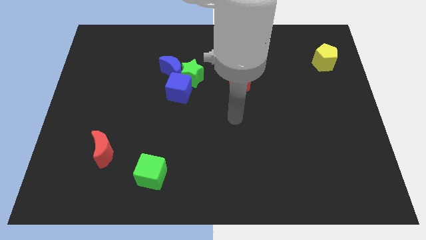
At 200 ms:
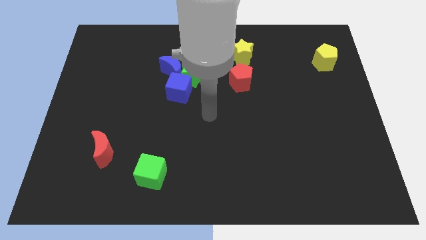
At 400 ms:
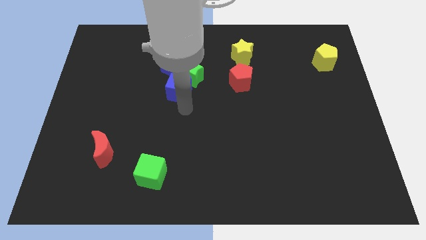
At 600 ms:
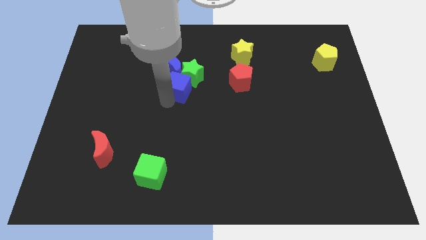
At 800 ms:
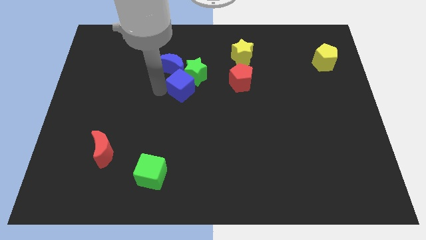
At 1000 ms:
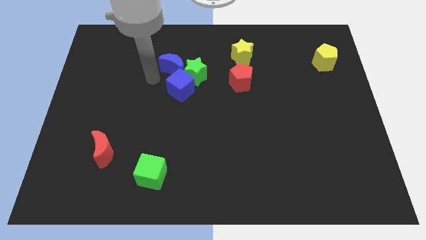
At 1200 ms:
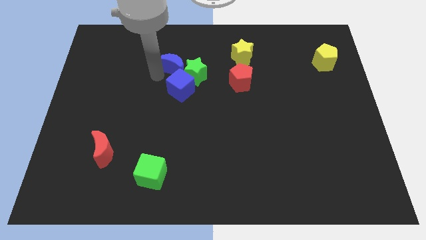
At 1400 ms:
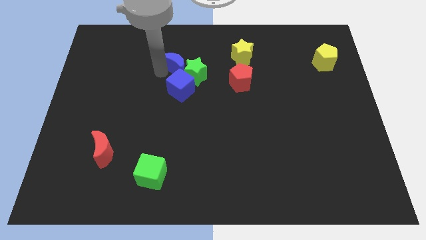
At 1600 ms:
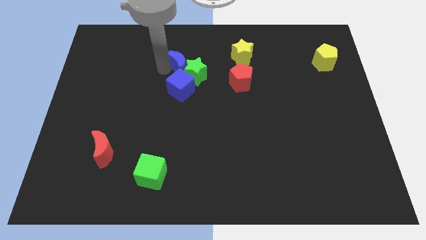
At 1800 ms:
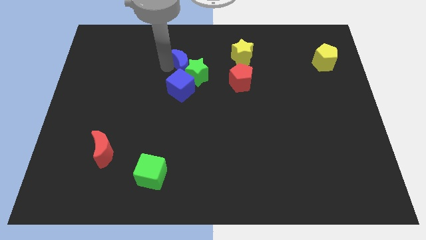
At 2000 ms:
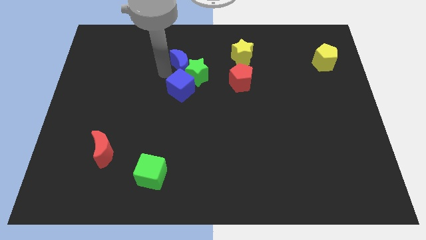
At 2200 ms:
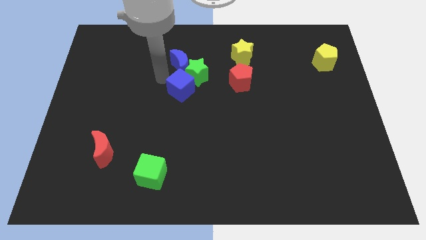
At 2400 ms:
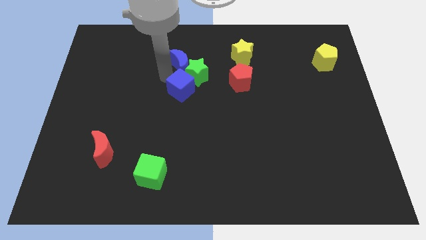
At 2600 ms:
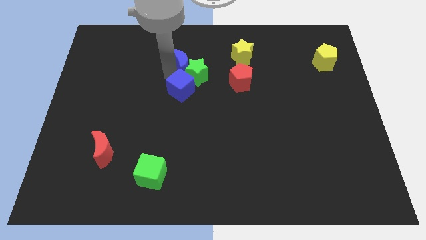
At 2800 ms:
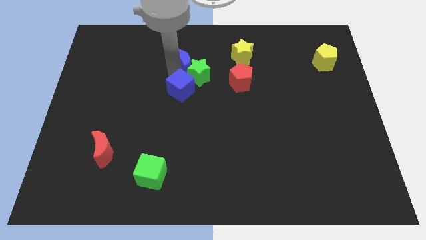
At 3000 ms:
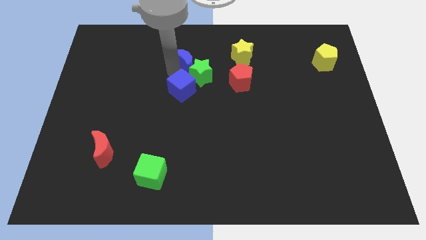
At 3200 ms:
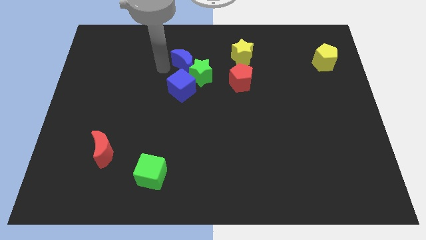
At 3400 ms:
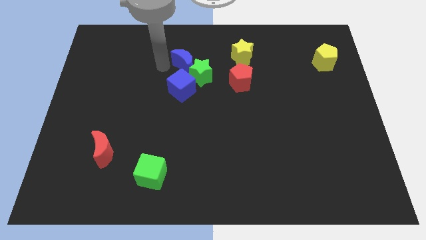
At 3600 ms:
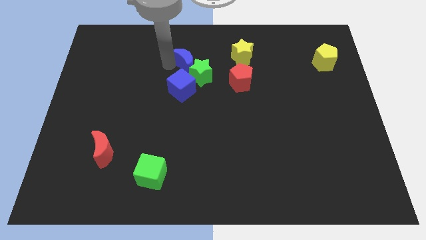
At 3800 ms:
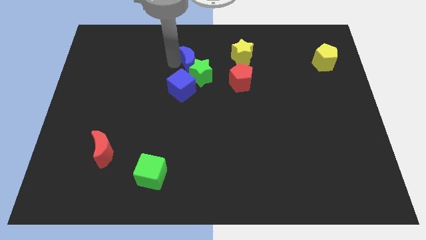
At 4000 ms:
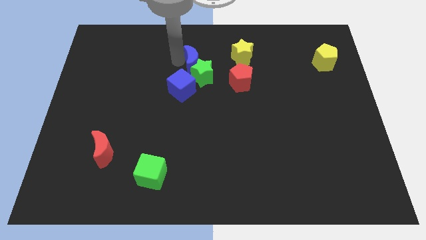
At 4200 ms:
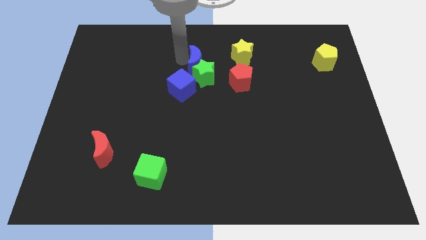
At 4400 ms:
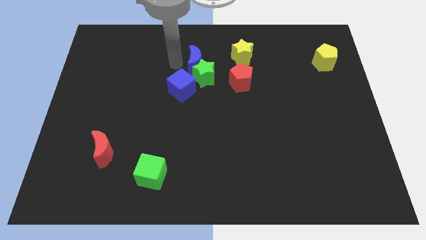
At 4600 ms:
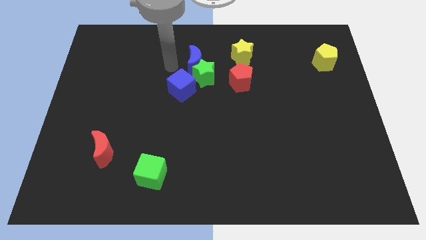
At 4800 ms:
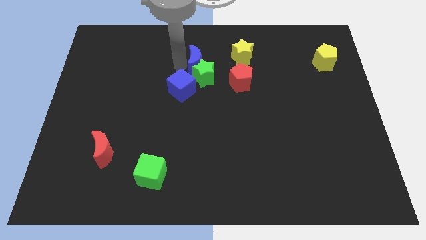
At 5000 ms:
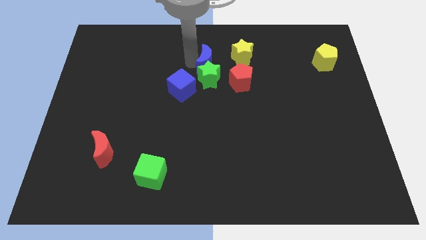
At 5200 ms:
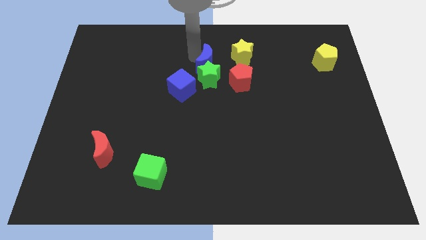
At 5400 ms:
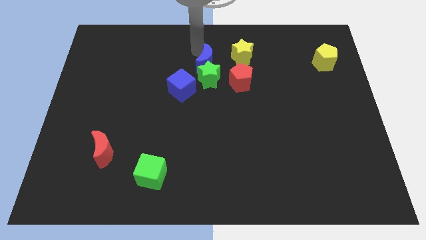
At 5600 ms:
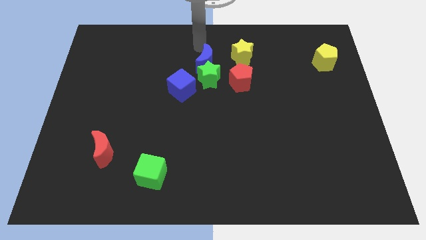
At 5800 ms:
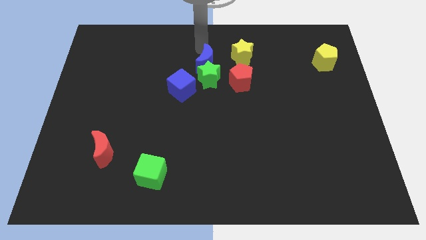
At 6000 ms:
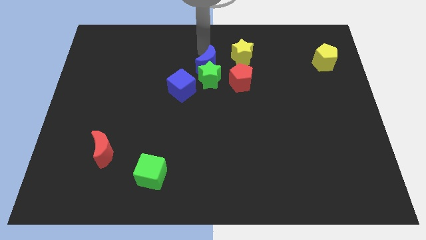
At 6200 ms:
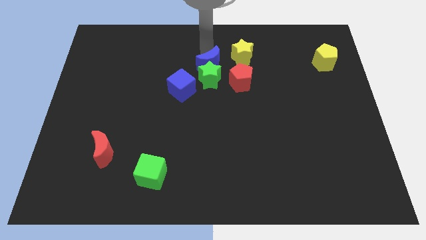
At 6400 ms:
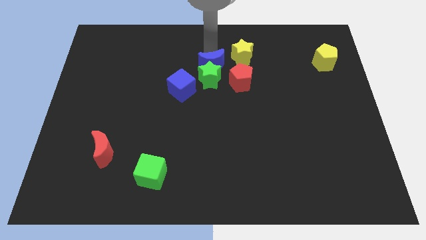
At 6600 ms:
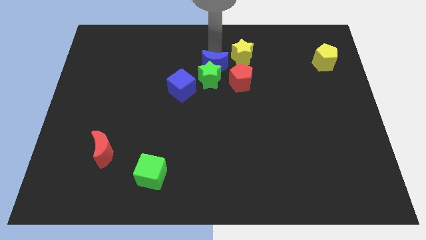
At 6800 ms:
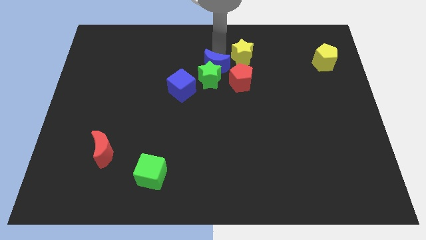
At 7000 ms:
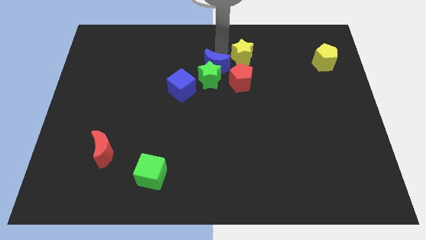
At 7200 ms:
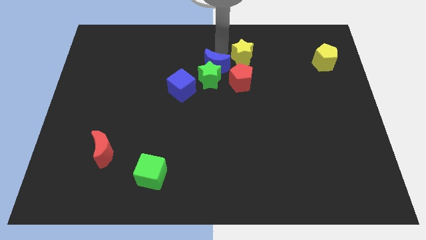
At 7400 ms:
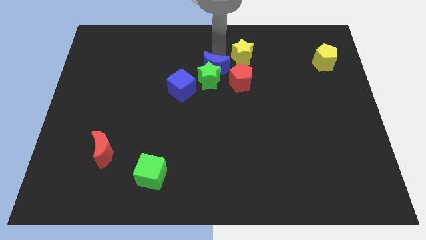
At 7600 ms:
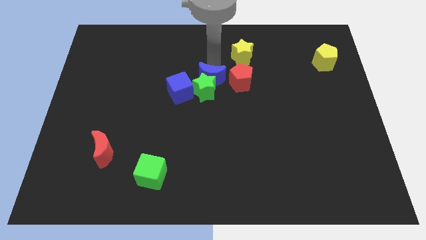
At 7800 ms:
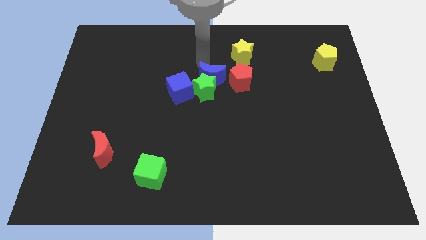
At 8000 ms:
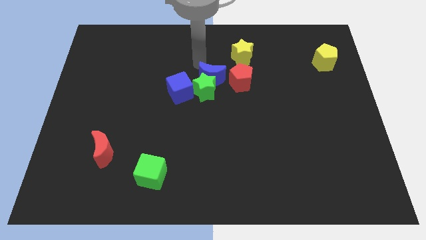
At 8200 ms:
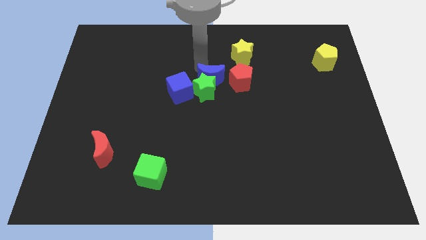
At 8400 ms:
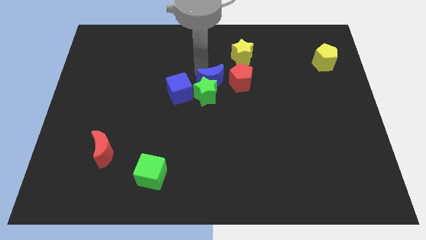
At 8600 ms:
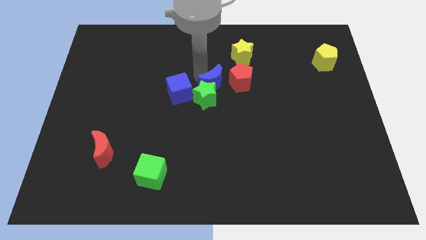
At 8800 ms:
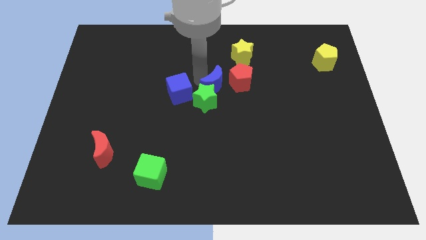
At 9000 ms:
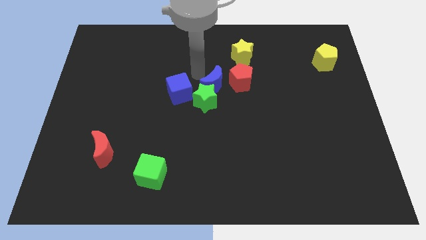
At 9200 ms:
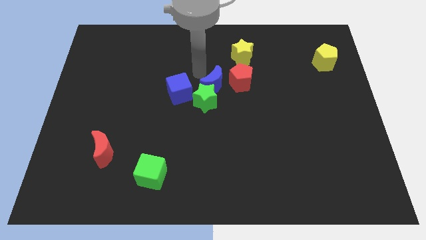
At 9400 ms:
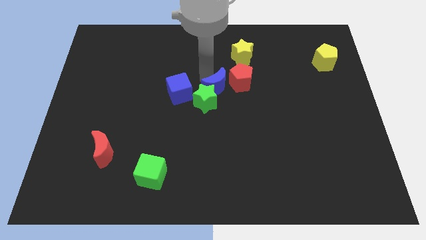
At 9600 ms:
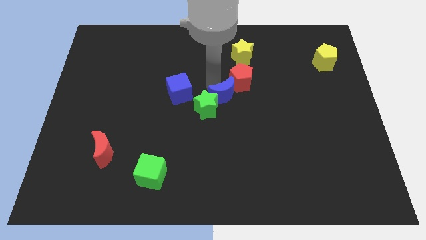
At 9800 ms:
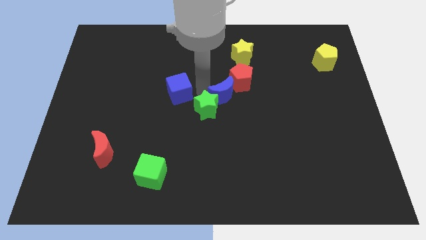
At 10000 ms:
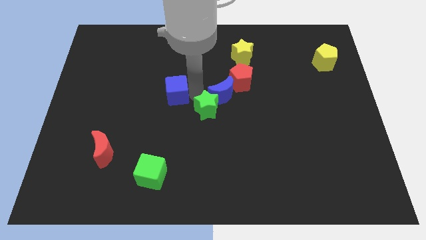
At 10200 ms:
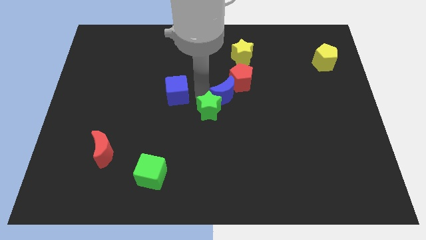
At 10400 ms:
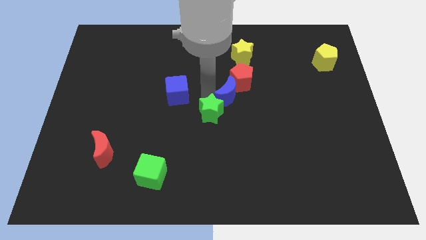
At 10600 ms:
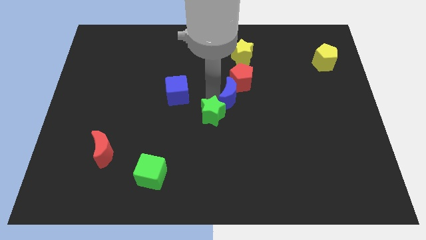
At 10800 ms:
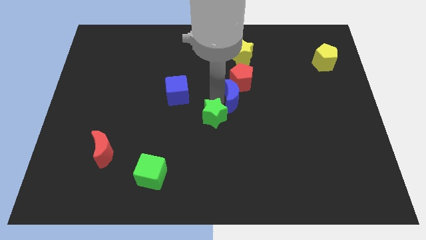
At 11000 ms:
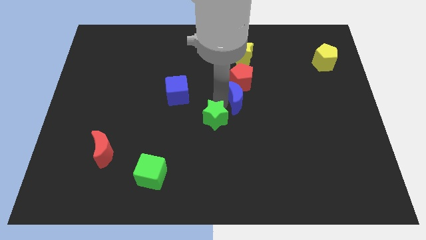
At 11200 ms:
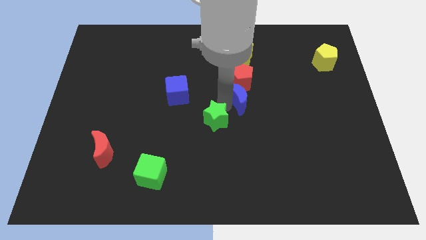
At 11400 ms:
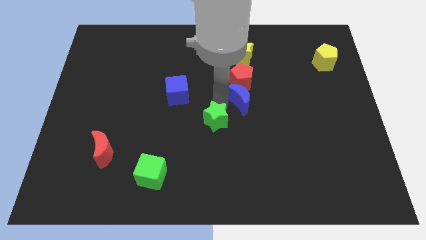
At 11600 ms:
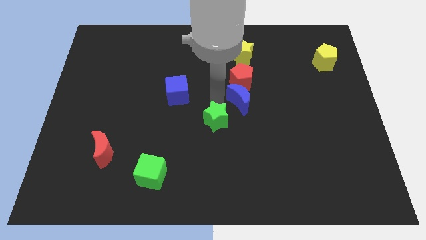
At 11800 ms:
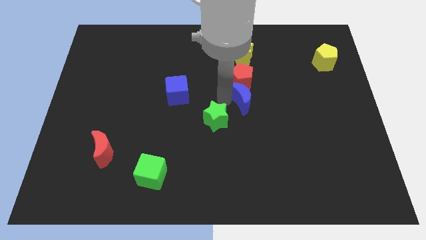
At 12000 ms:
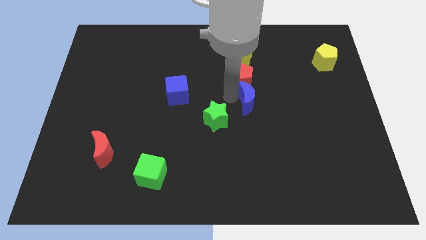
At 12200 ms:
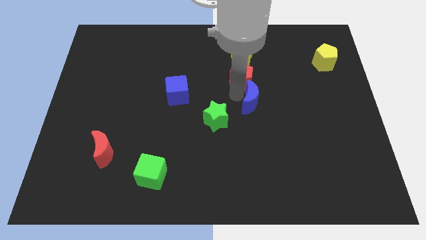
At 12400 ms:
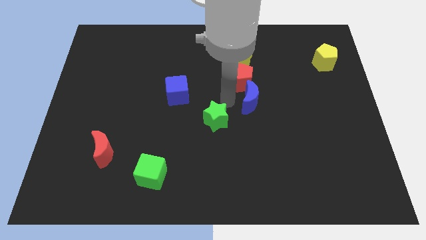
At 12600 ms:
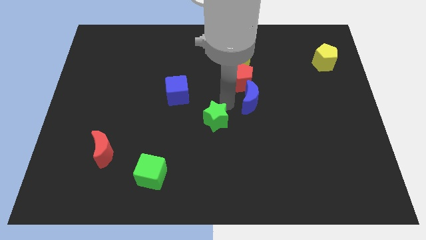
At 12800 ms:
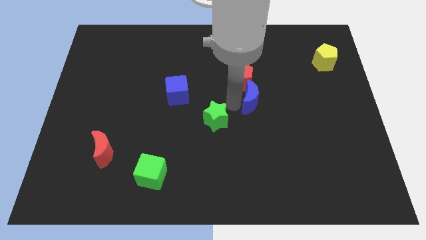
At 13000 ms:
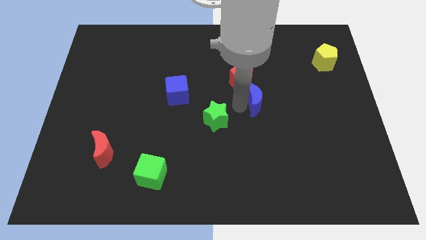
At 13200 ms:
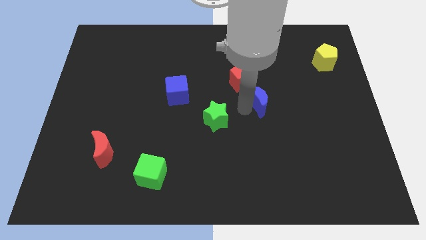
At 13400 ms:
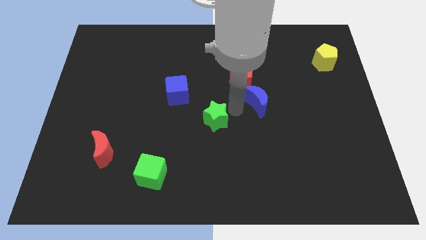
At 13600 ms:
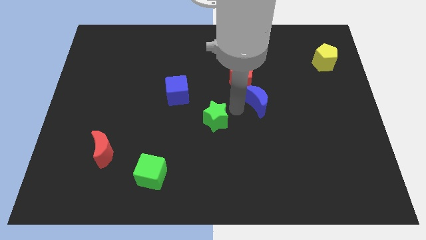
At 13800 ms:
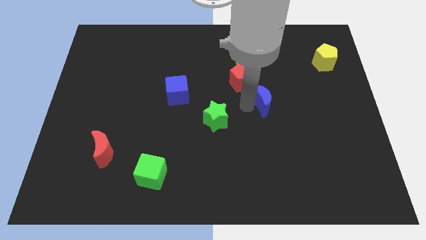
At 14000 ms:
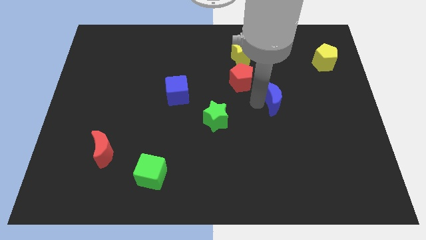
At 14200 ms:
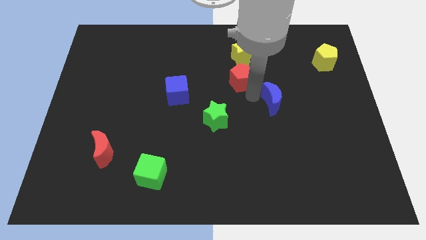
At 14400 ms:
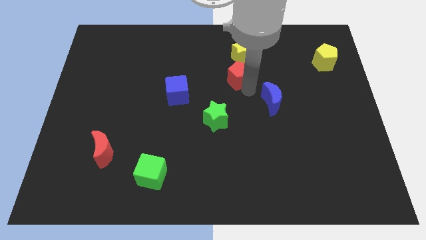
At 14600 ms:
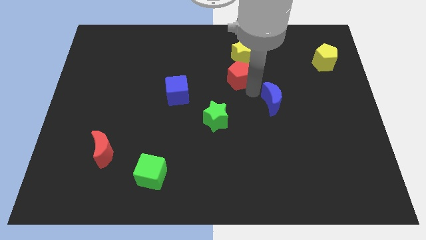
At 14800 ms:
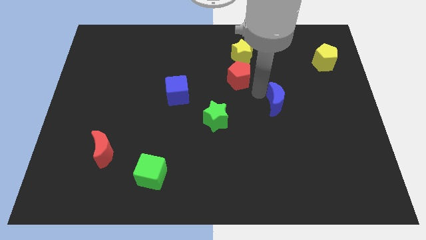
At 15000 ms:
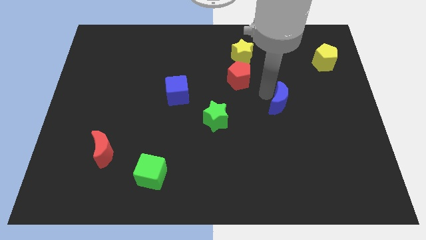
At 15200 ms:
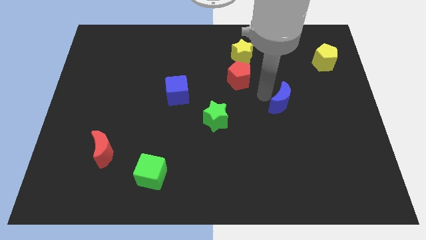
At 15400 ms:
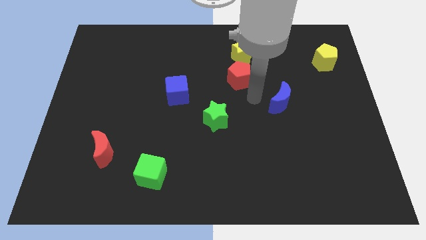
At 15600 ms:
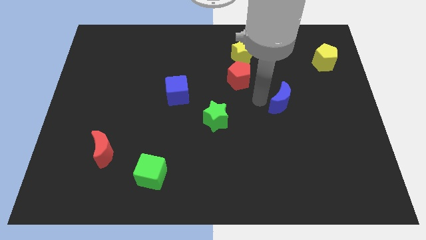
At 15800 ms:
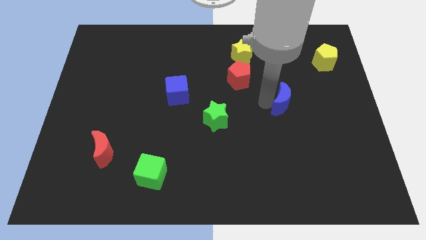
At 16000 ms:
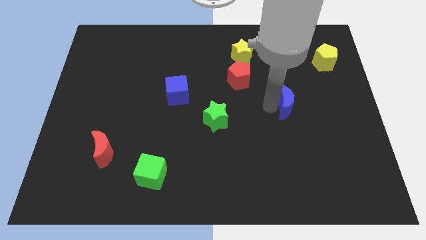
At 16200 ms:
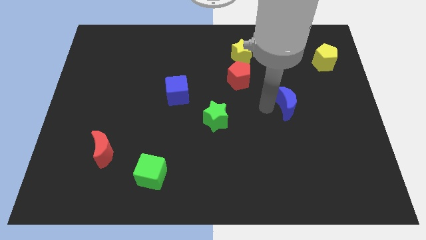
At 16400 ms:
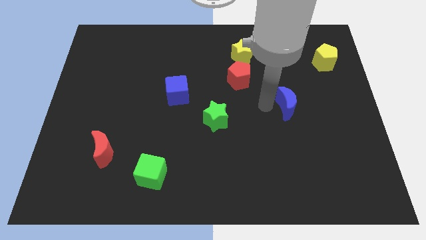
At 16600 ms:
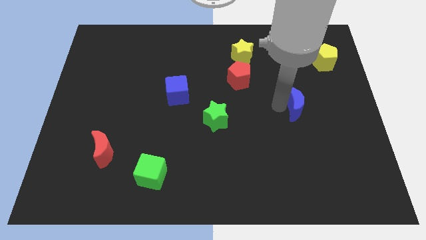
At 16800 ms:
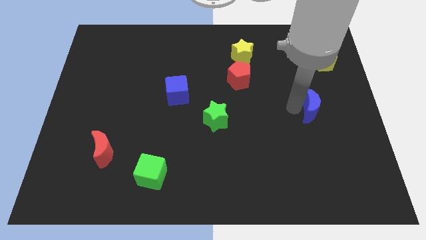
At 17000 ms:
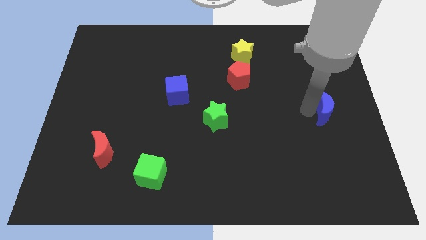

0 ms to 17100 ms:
push the blue moon to the right side of the board
